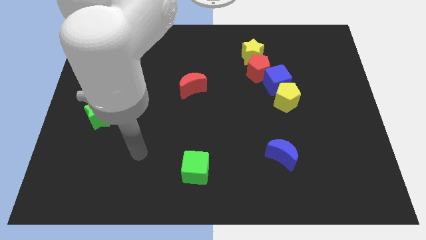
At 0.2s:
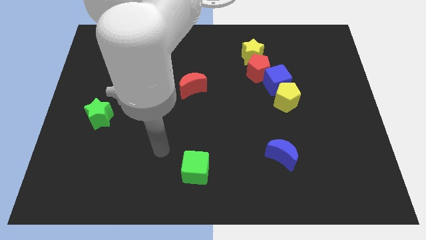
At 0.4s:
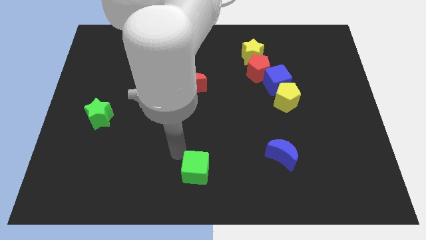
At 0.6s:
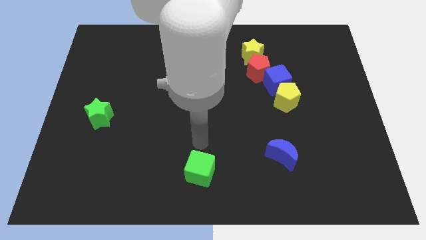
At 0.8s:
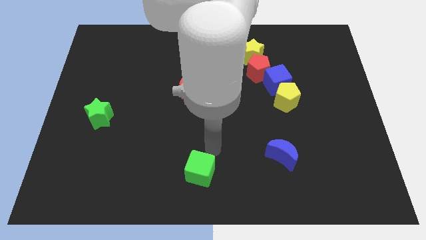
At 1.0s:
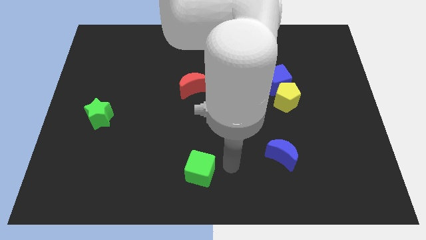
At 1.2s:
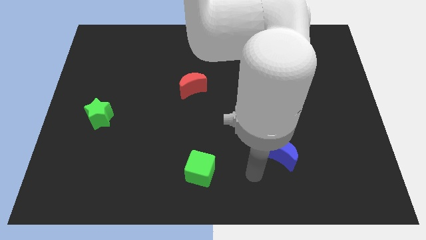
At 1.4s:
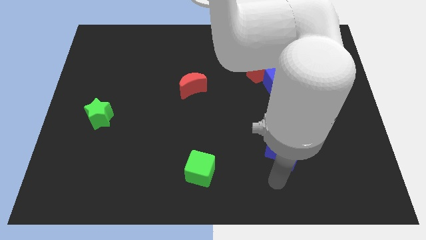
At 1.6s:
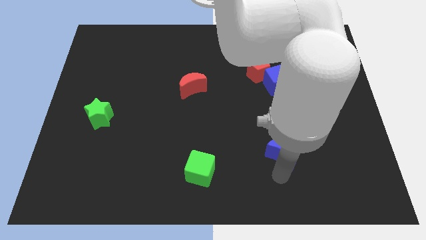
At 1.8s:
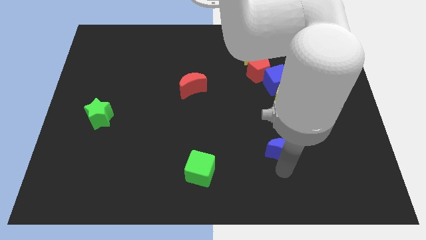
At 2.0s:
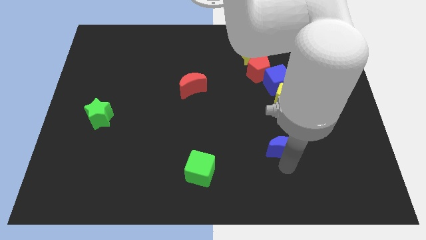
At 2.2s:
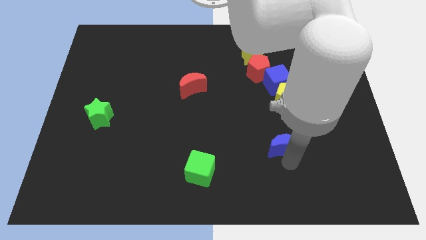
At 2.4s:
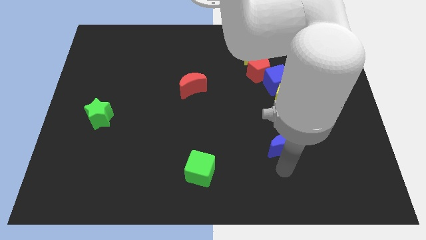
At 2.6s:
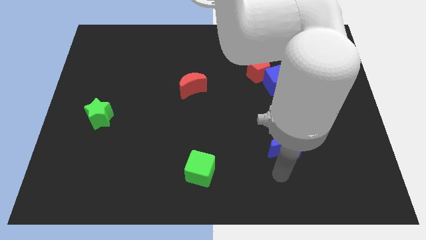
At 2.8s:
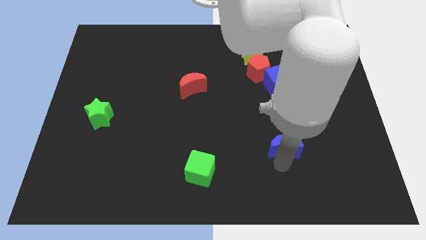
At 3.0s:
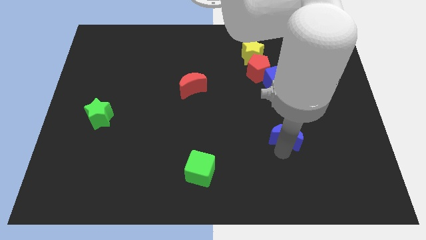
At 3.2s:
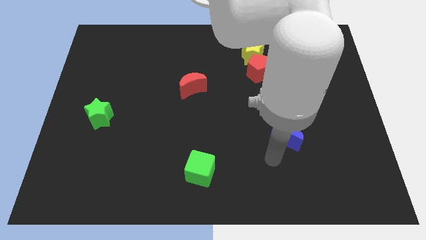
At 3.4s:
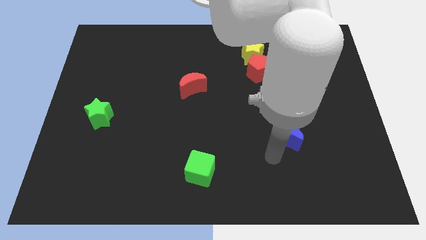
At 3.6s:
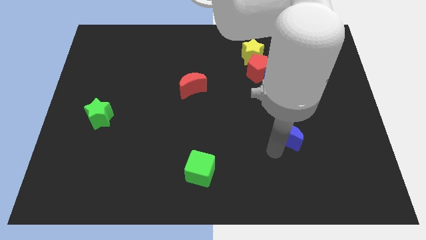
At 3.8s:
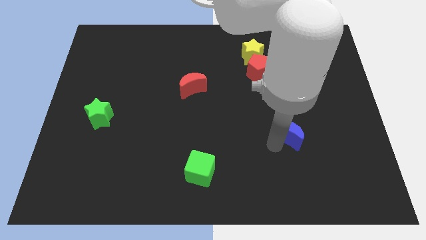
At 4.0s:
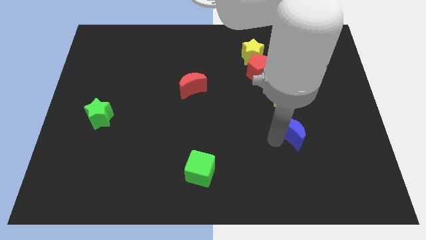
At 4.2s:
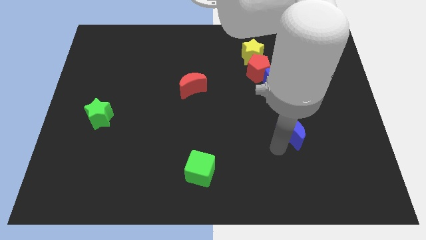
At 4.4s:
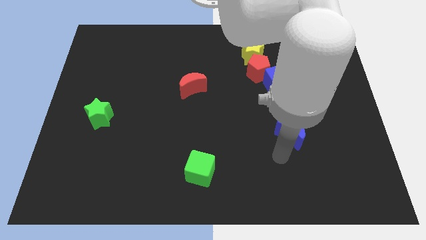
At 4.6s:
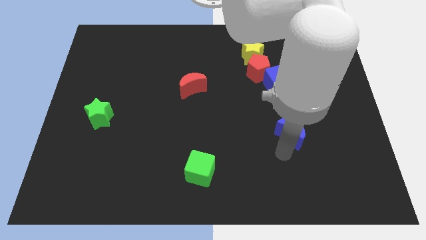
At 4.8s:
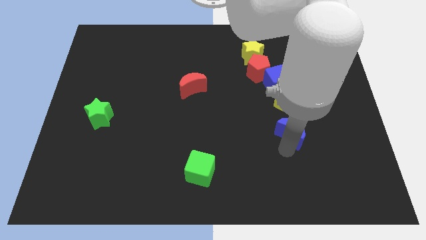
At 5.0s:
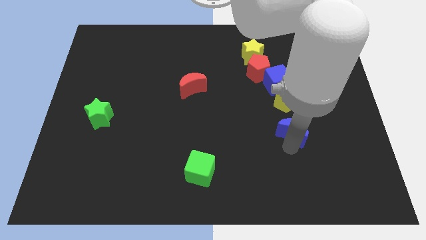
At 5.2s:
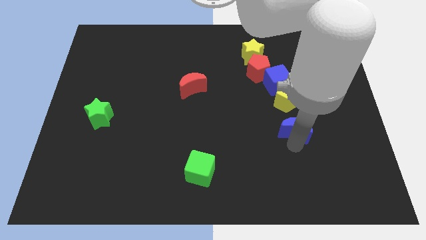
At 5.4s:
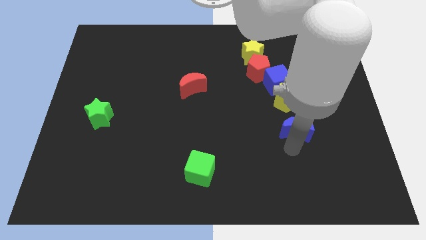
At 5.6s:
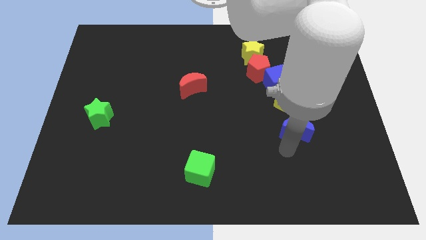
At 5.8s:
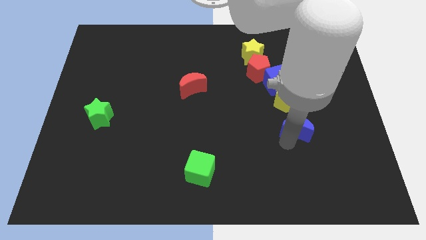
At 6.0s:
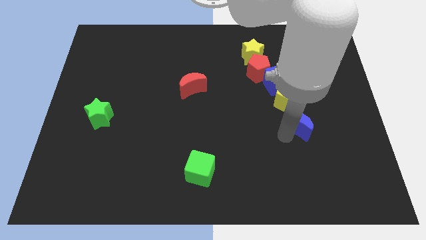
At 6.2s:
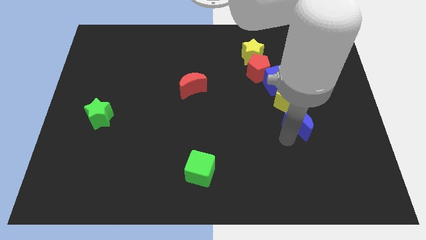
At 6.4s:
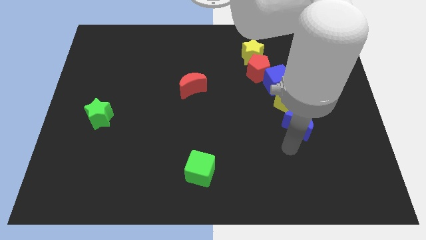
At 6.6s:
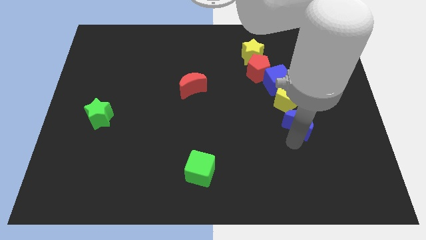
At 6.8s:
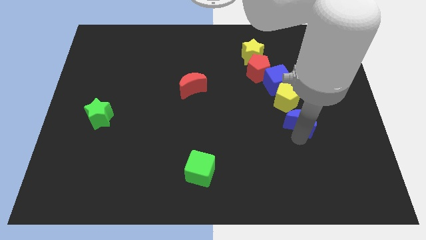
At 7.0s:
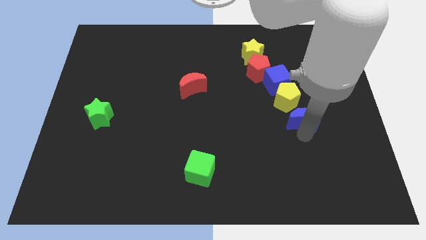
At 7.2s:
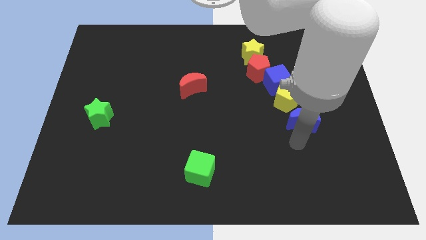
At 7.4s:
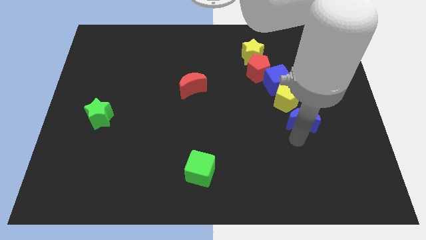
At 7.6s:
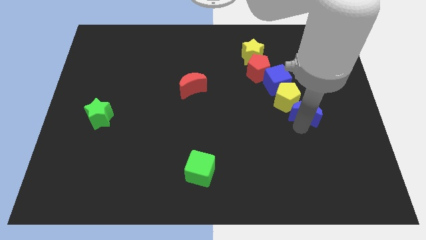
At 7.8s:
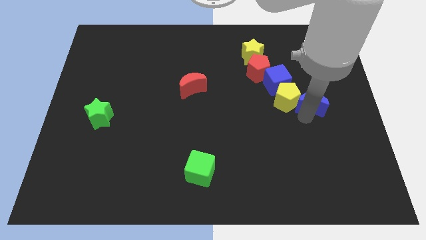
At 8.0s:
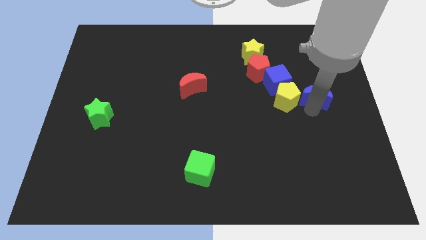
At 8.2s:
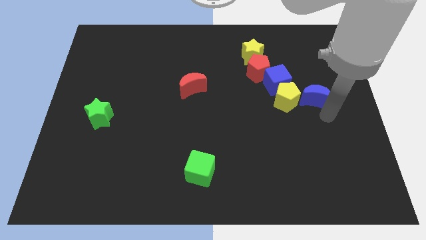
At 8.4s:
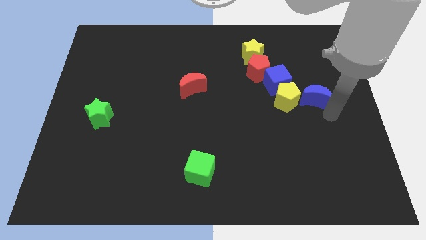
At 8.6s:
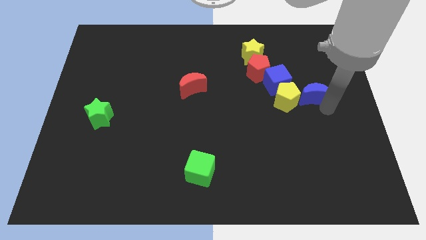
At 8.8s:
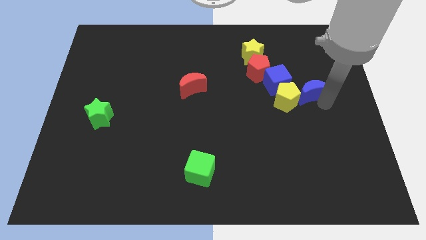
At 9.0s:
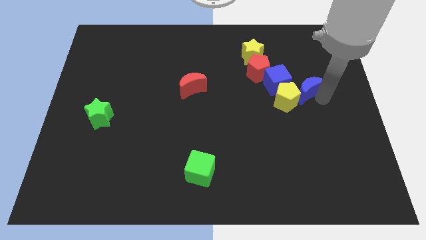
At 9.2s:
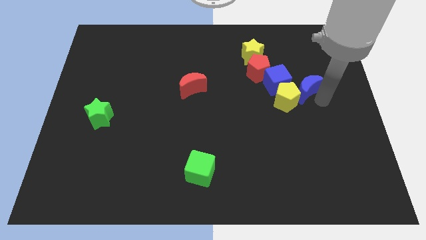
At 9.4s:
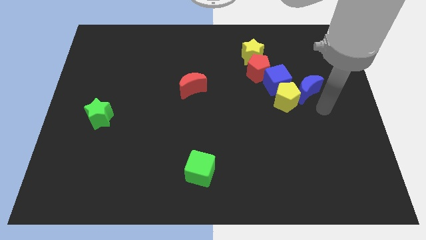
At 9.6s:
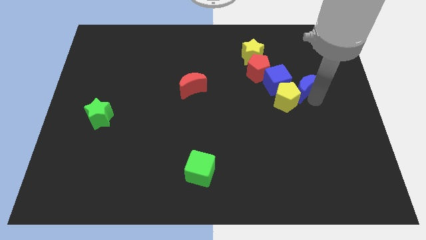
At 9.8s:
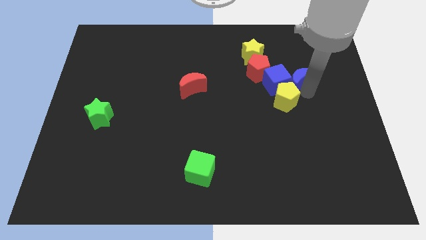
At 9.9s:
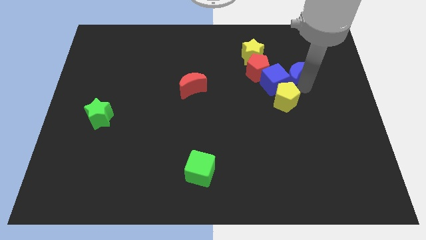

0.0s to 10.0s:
slide the blue moon to the bottom right side of the yellow star

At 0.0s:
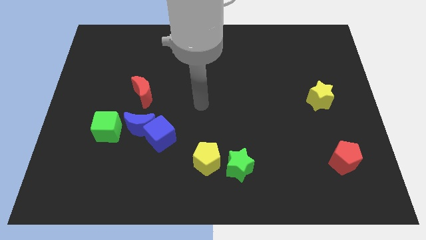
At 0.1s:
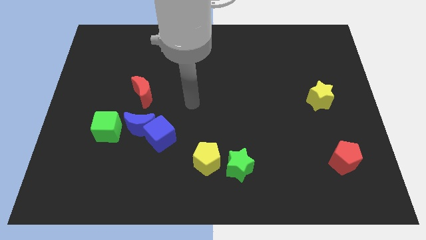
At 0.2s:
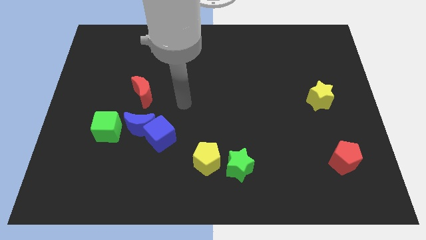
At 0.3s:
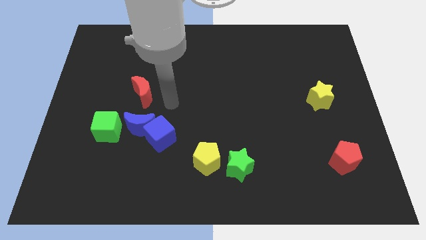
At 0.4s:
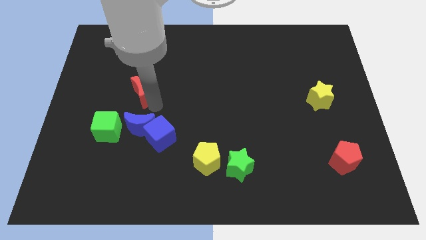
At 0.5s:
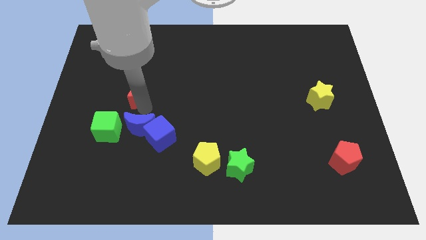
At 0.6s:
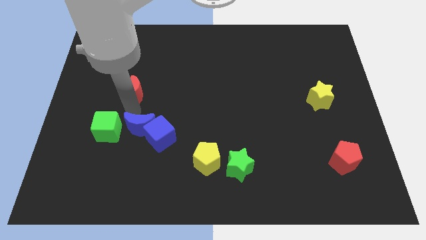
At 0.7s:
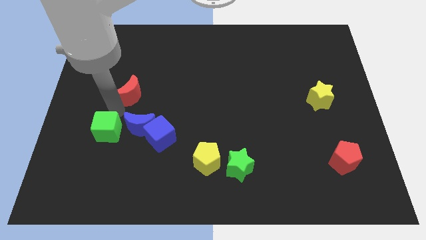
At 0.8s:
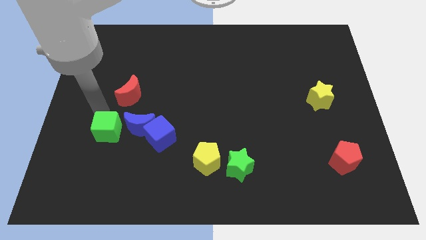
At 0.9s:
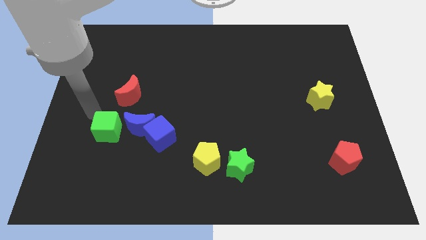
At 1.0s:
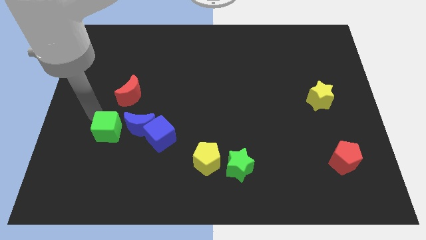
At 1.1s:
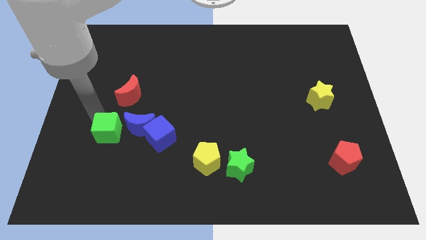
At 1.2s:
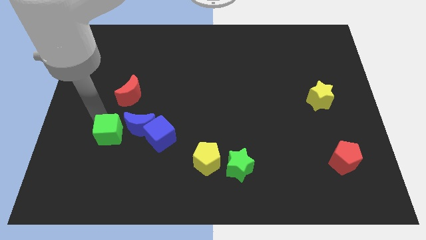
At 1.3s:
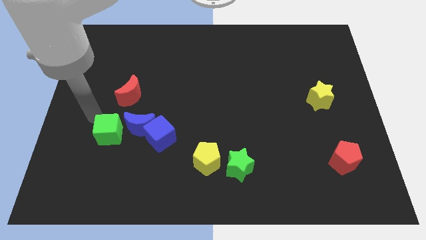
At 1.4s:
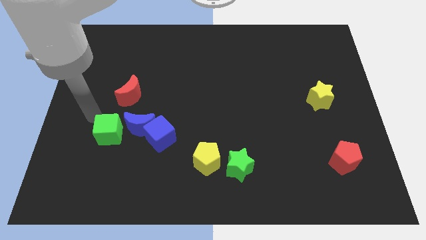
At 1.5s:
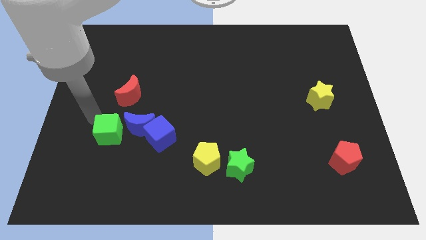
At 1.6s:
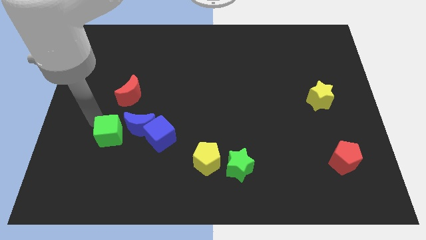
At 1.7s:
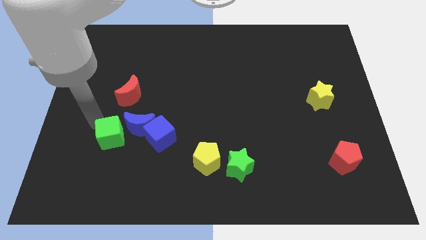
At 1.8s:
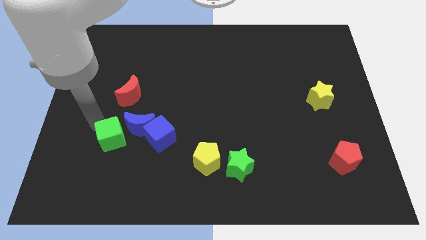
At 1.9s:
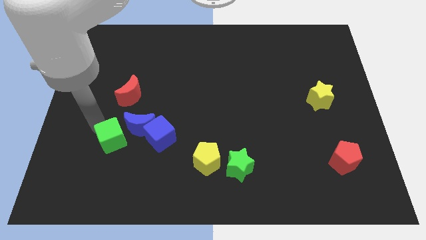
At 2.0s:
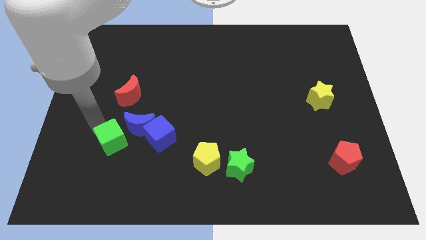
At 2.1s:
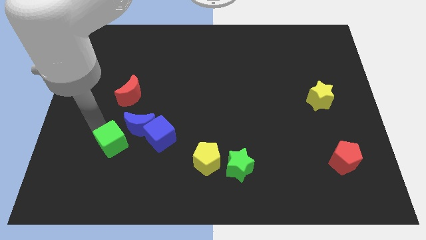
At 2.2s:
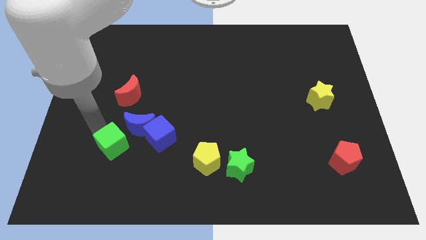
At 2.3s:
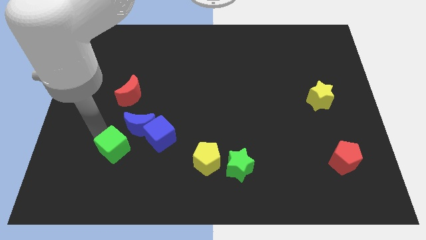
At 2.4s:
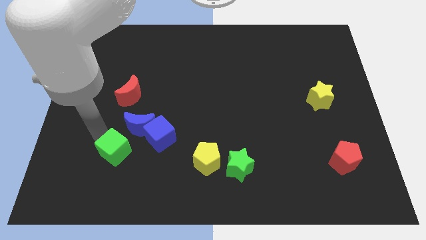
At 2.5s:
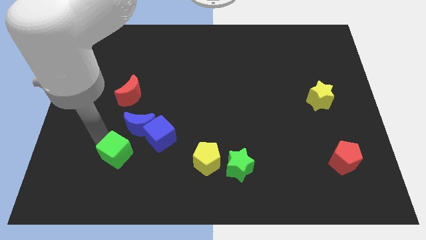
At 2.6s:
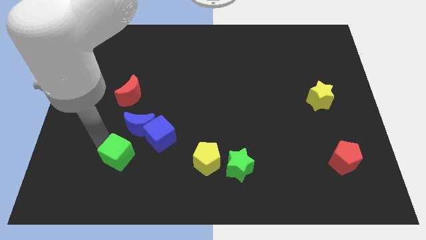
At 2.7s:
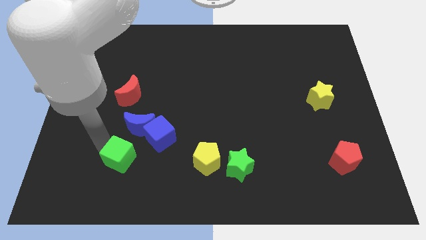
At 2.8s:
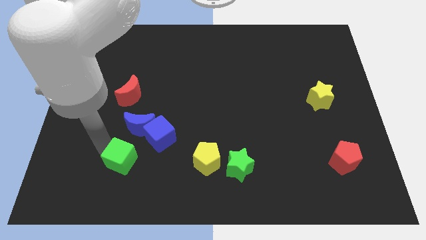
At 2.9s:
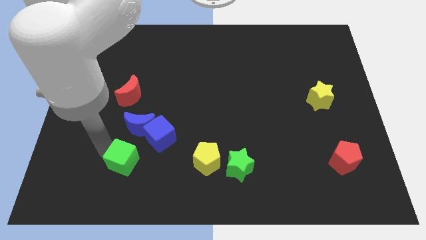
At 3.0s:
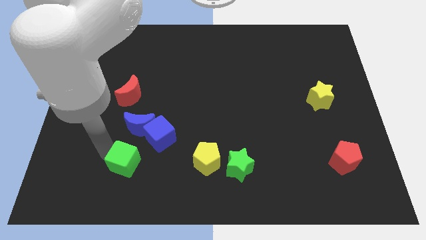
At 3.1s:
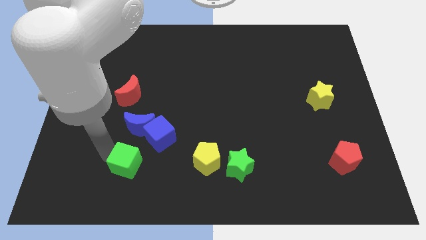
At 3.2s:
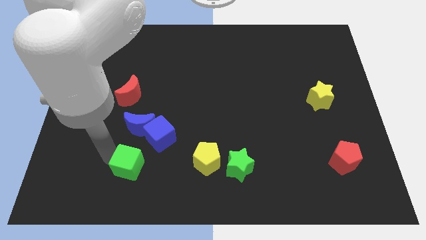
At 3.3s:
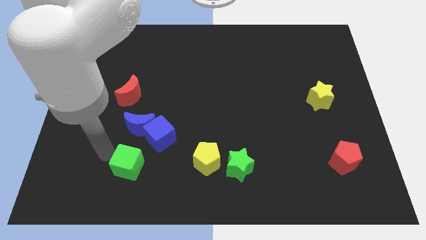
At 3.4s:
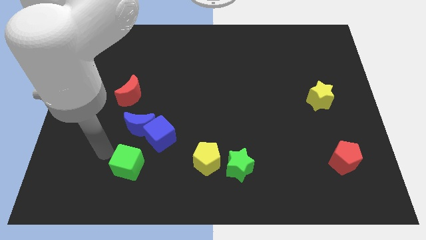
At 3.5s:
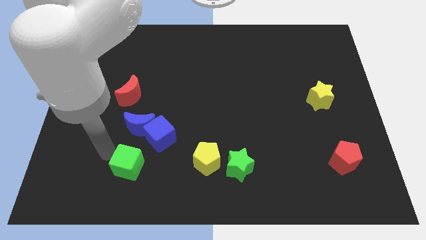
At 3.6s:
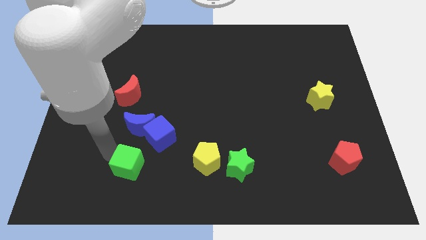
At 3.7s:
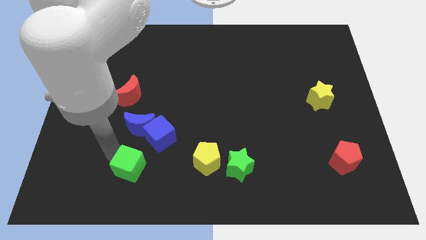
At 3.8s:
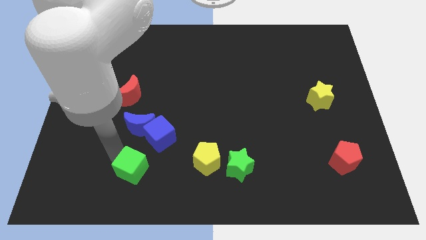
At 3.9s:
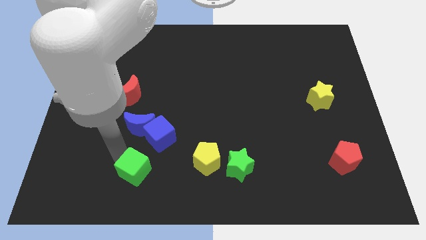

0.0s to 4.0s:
move the green cube below the blue cube
